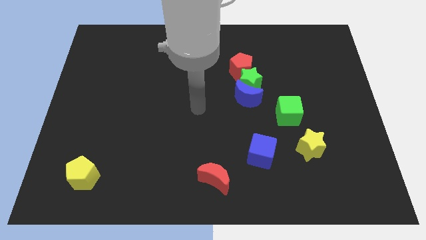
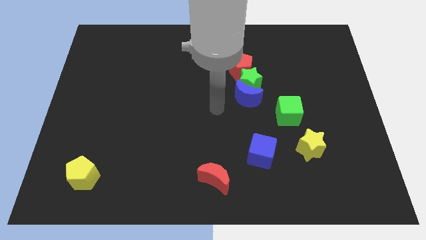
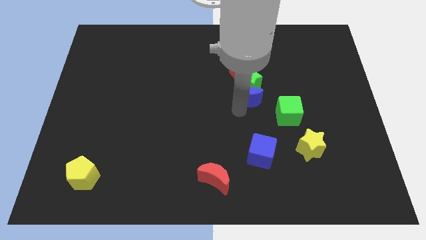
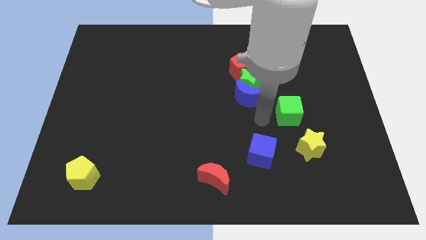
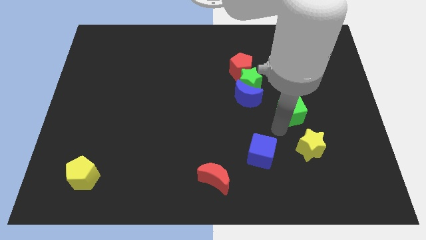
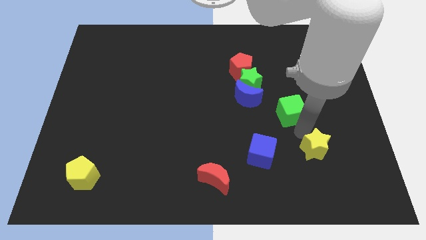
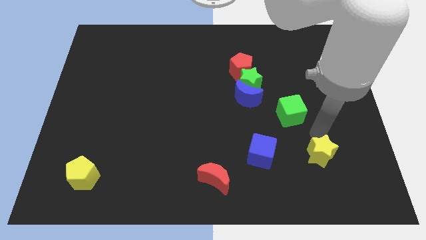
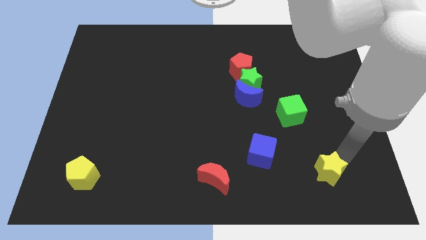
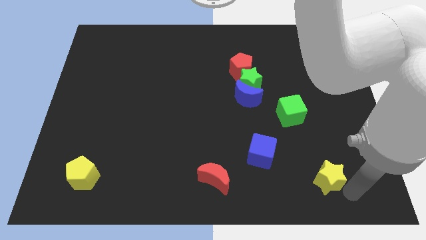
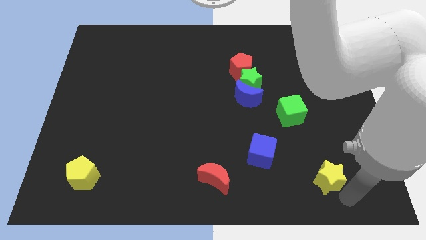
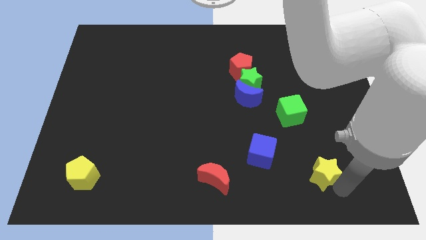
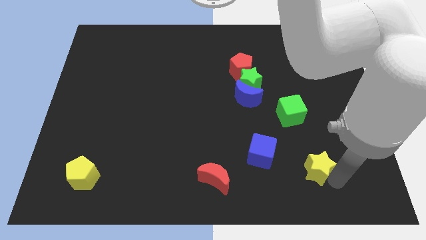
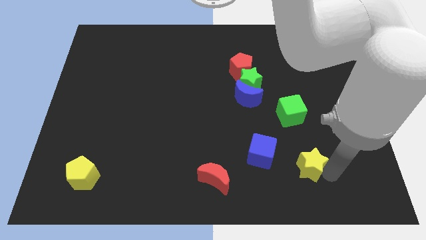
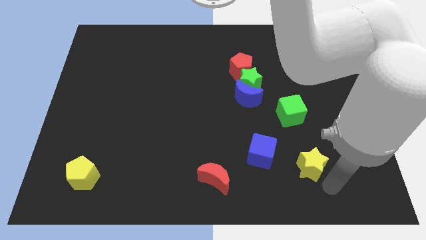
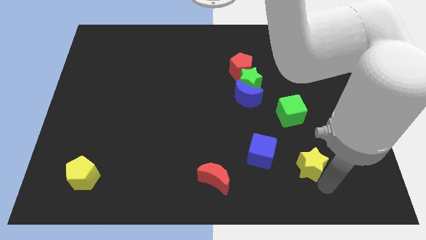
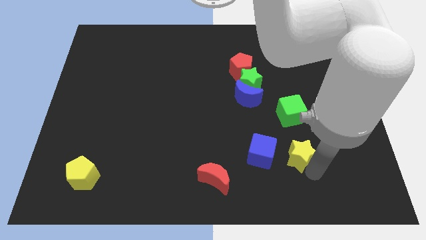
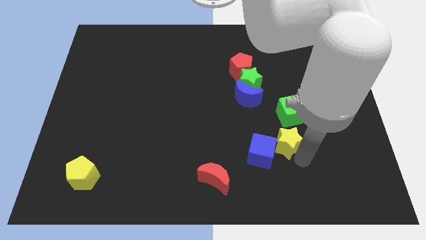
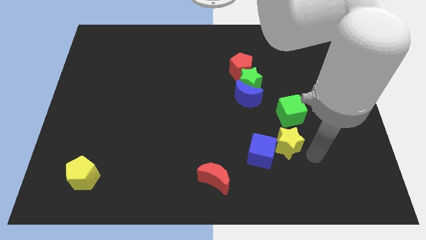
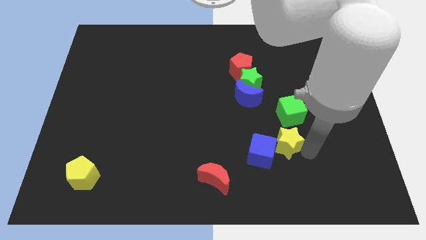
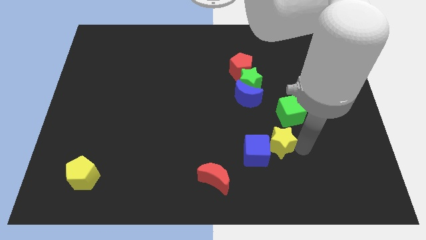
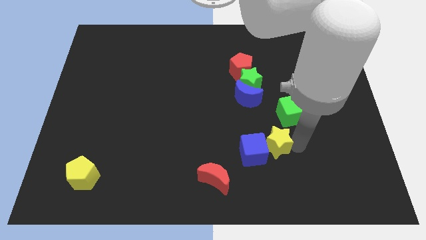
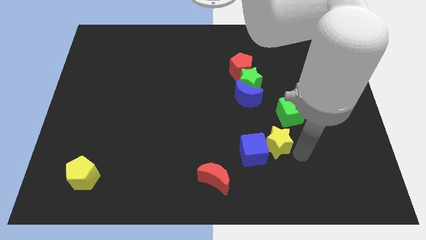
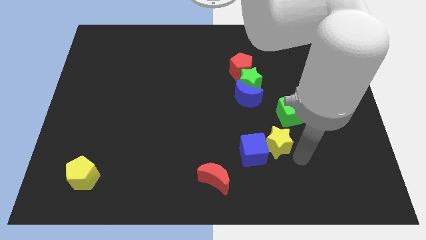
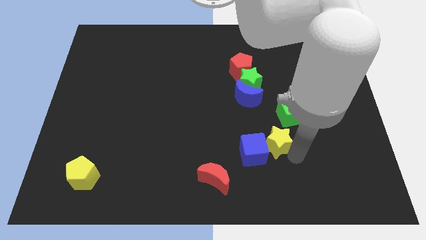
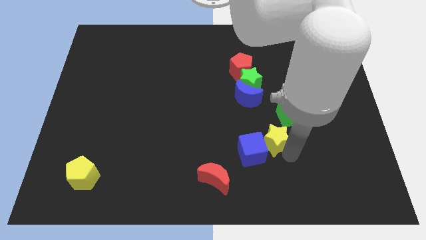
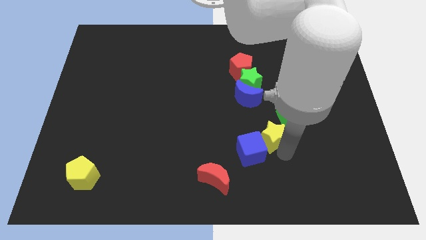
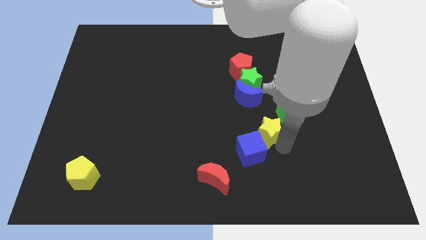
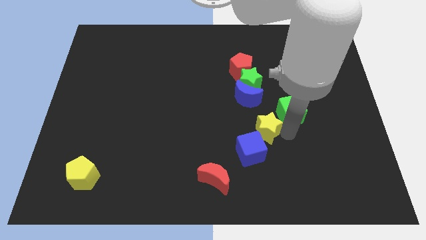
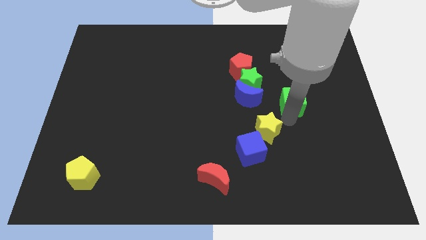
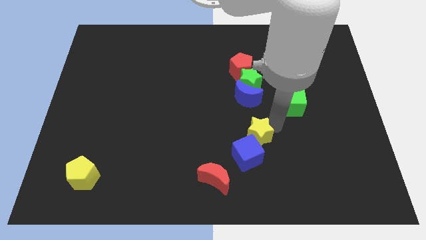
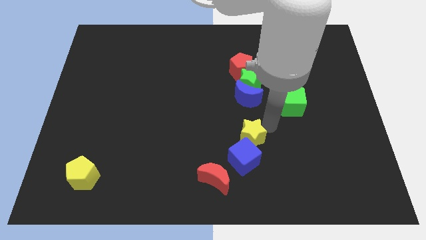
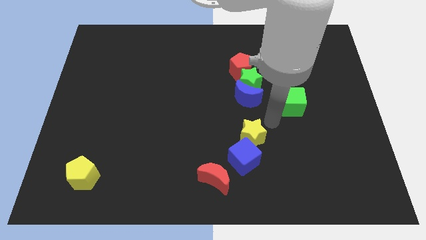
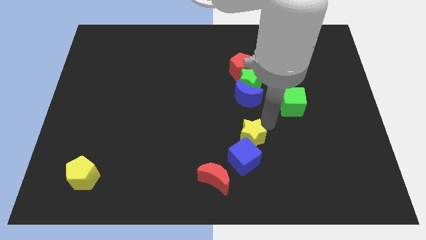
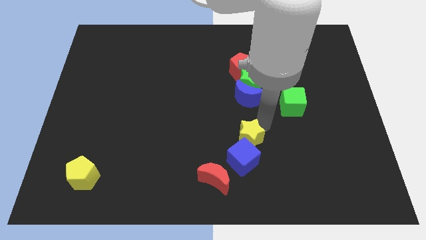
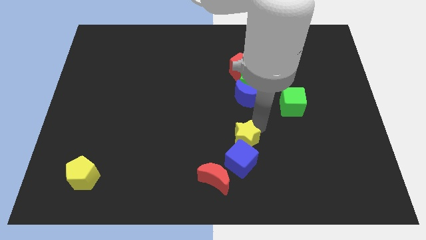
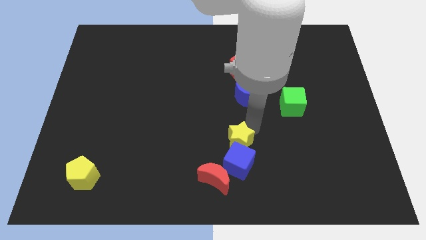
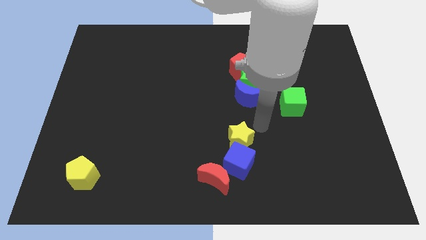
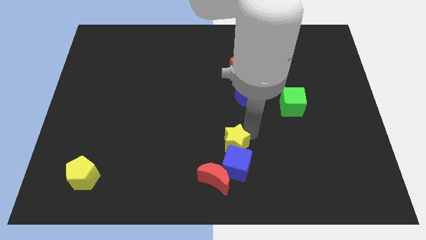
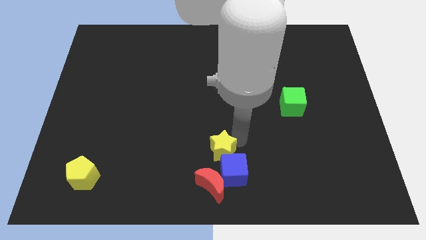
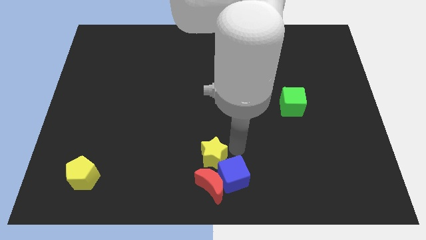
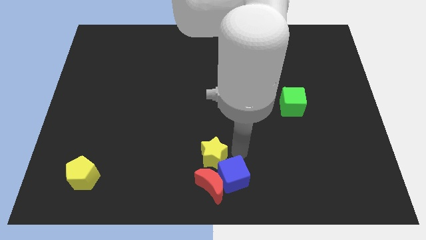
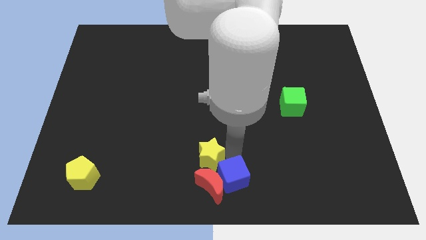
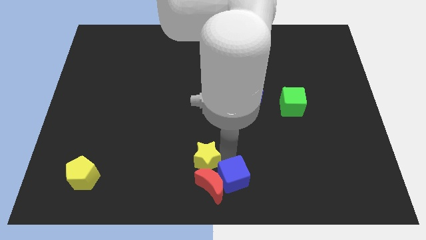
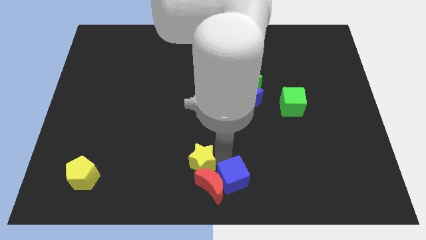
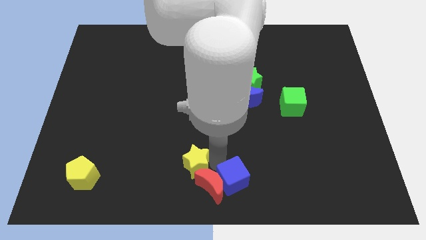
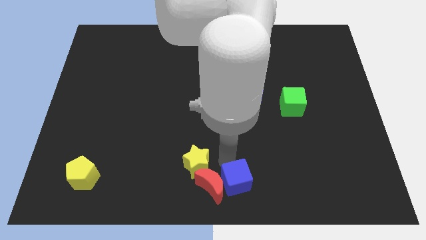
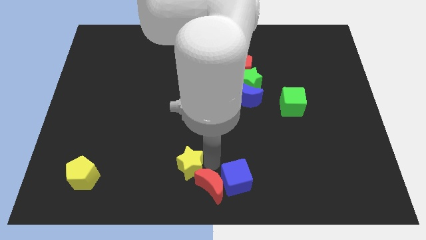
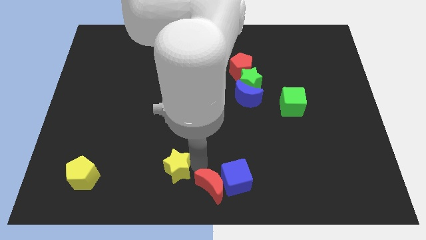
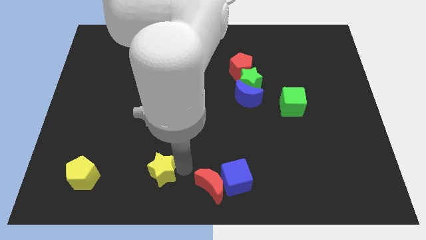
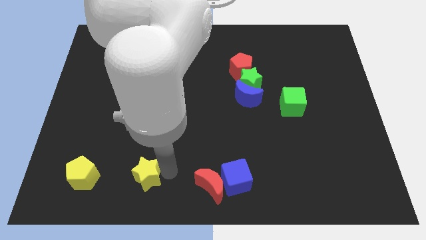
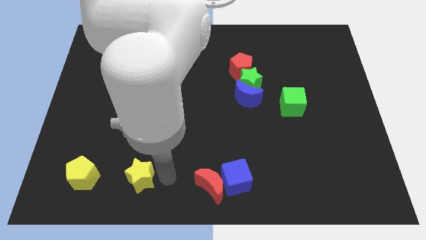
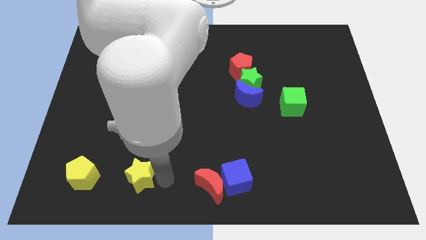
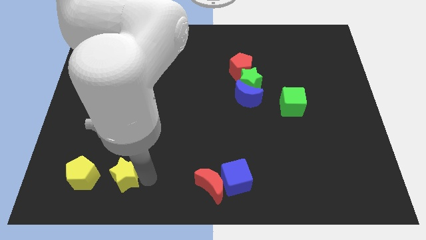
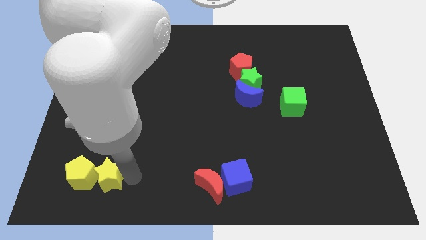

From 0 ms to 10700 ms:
slide the yellow star next to the yellow pentagon

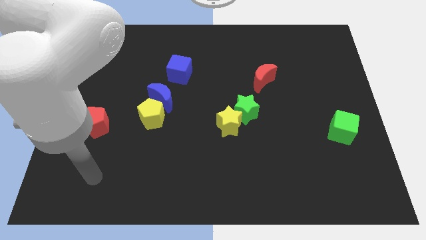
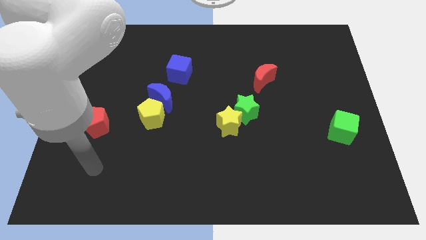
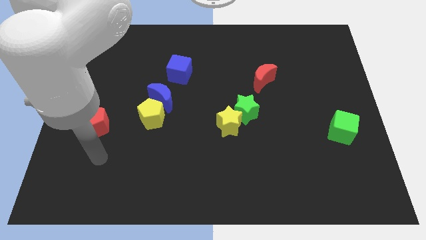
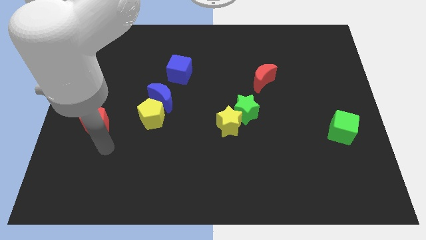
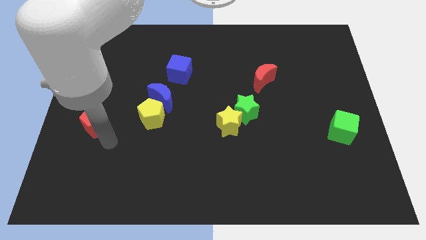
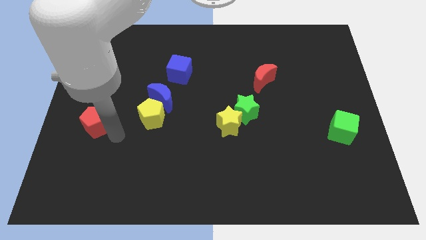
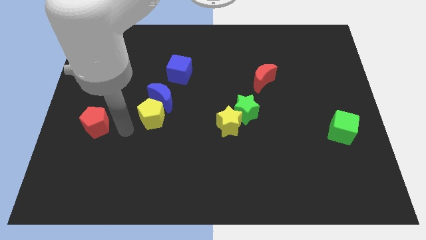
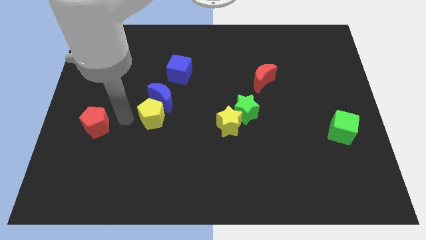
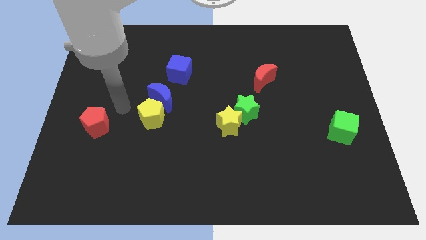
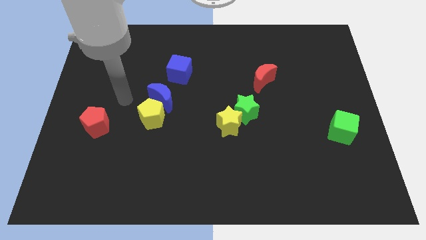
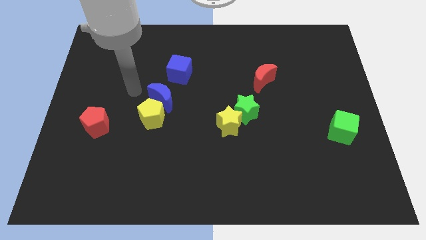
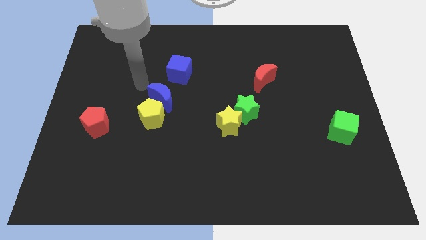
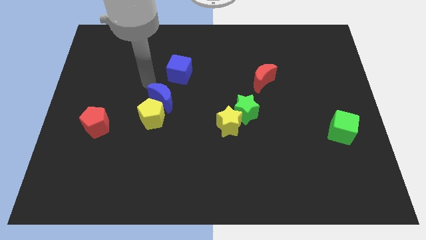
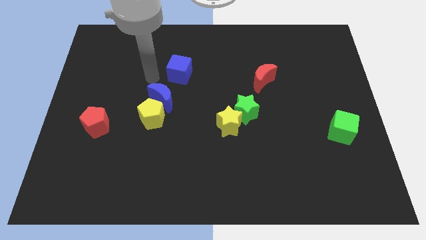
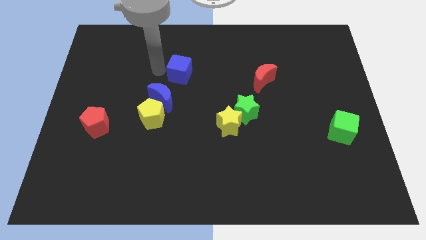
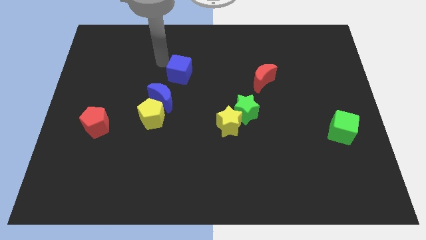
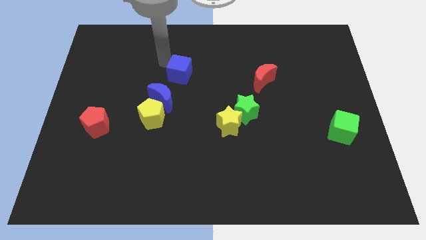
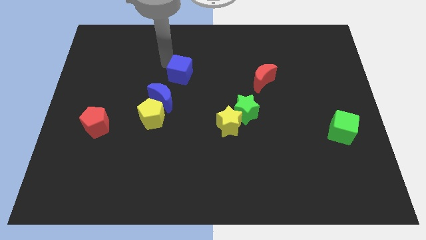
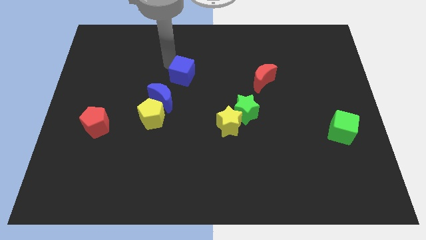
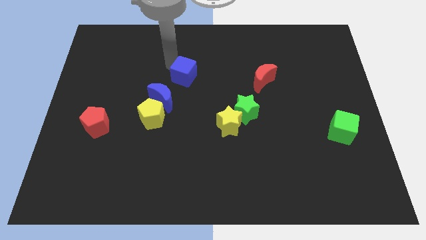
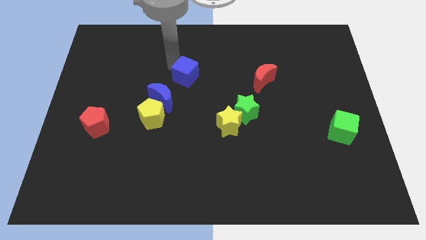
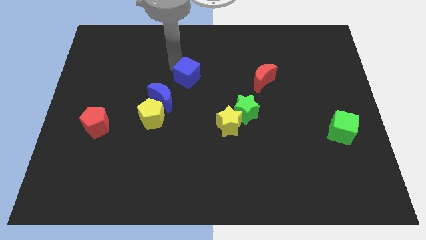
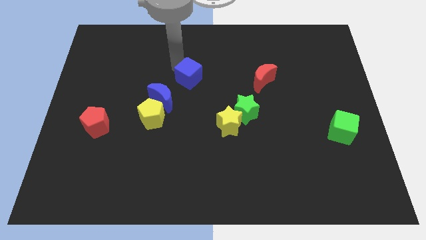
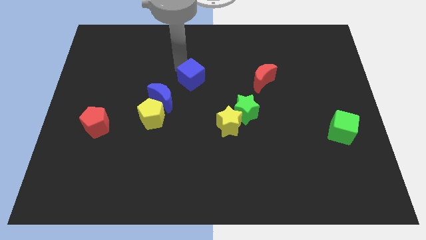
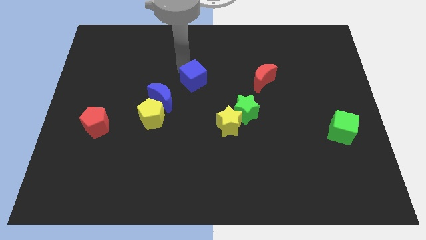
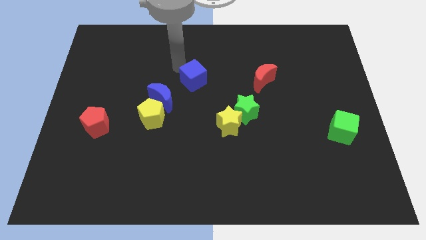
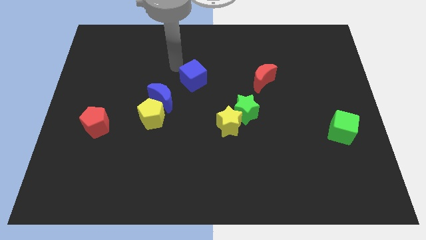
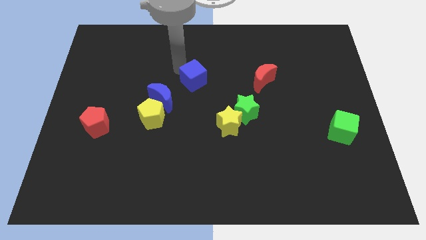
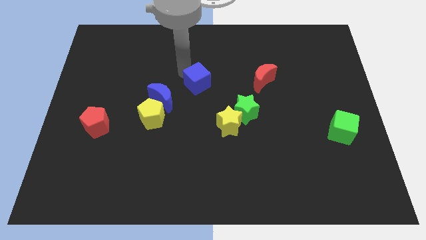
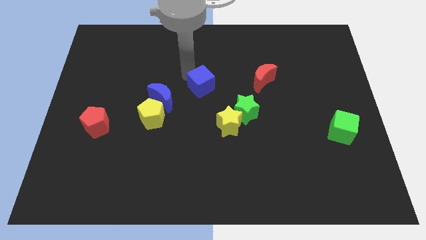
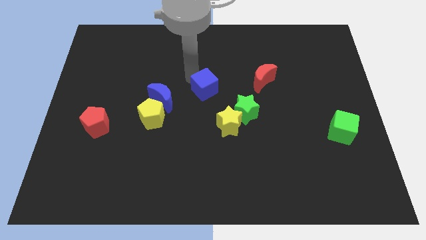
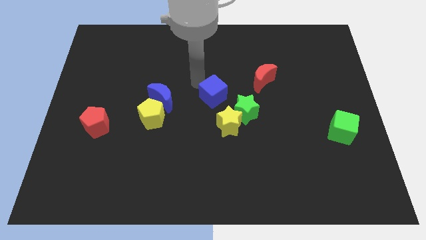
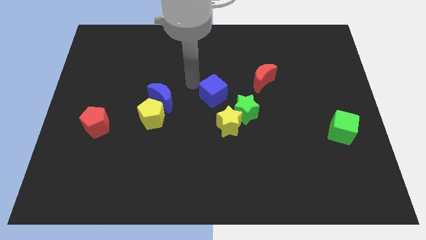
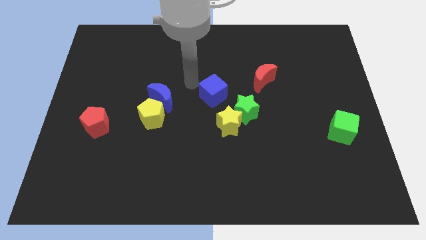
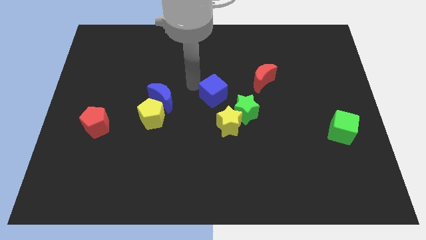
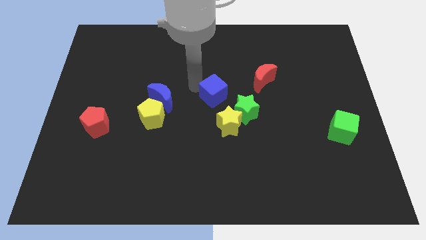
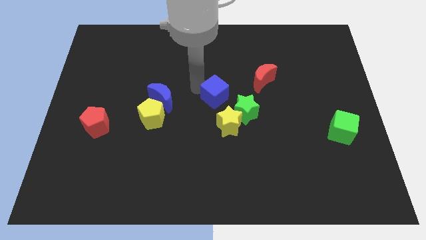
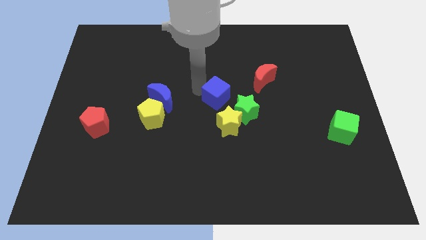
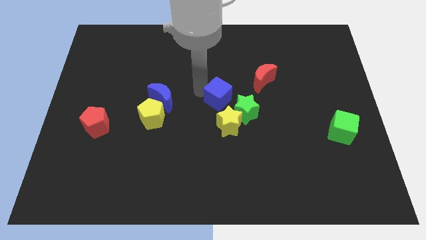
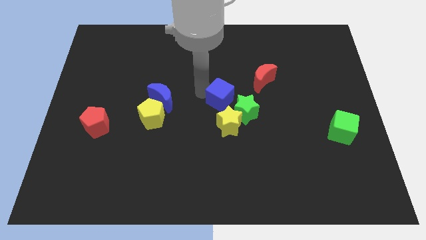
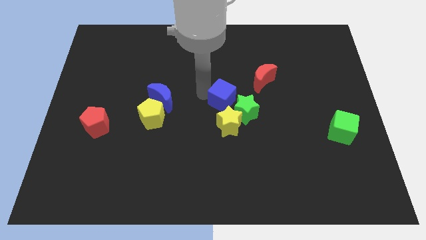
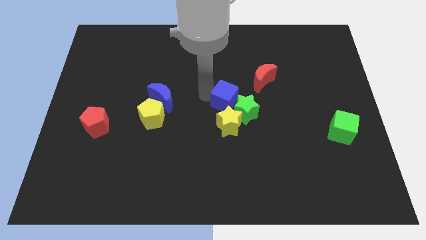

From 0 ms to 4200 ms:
push the blue cube towards the green star
